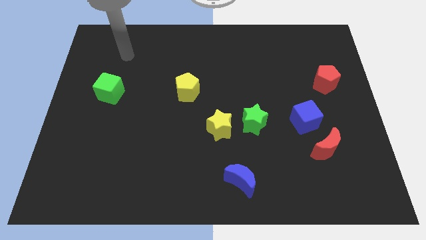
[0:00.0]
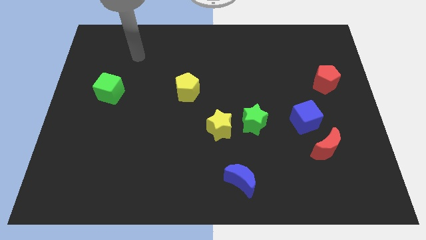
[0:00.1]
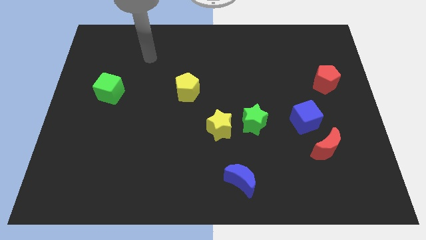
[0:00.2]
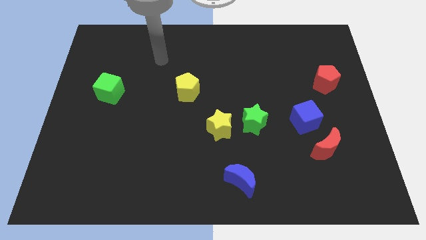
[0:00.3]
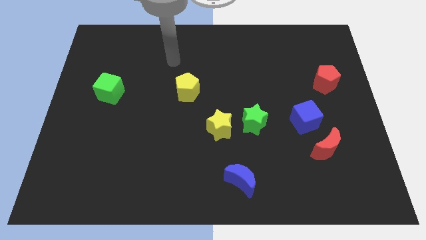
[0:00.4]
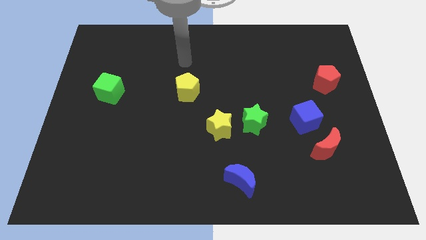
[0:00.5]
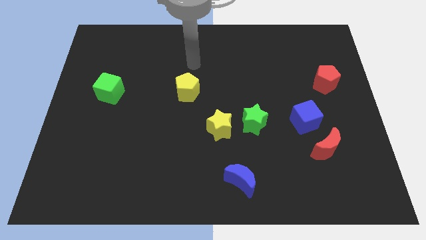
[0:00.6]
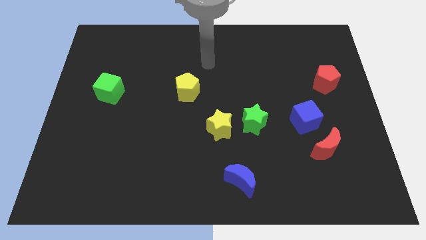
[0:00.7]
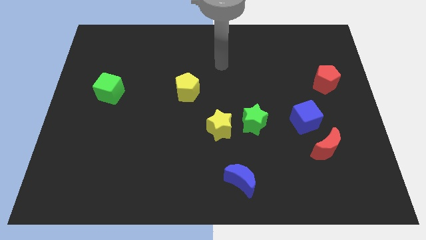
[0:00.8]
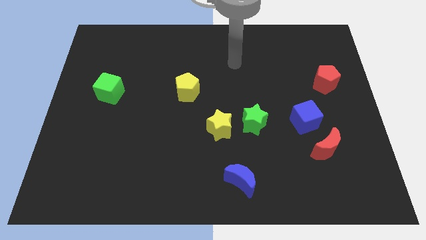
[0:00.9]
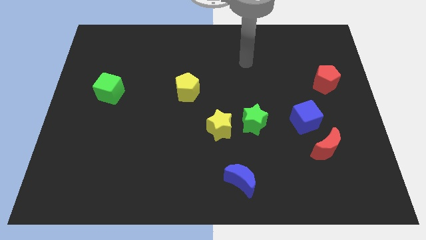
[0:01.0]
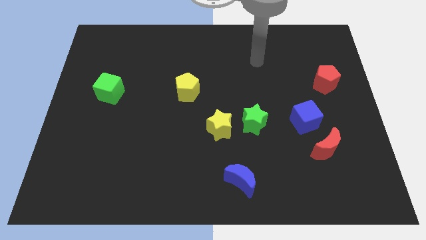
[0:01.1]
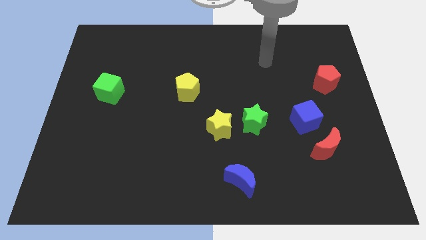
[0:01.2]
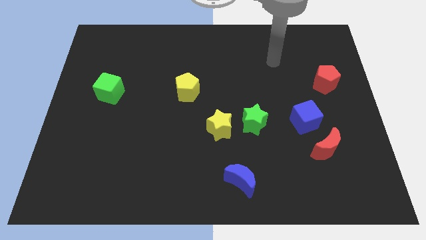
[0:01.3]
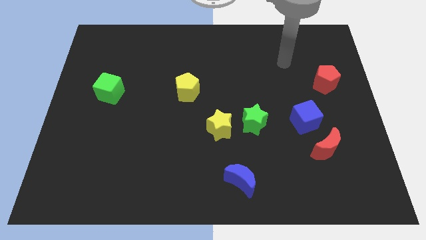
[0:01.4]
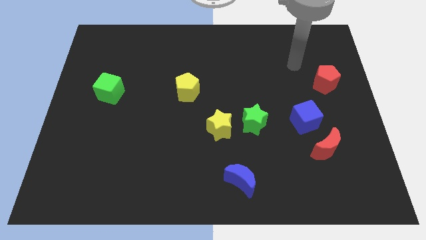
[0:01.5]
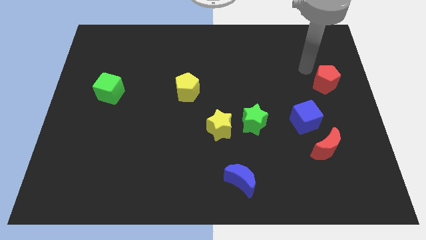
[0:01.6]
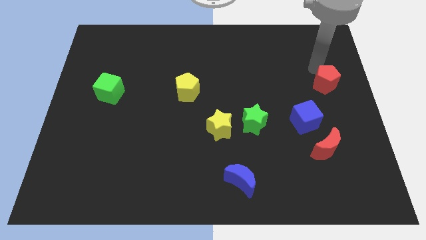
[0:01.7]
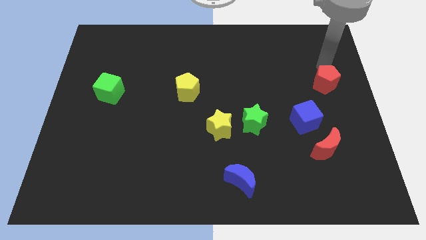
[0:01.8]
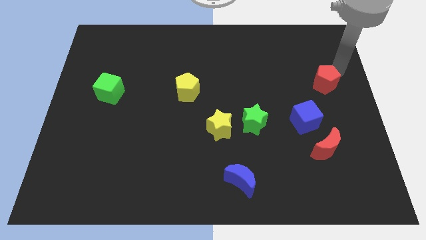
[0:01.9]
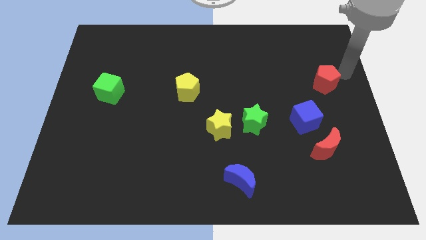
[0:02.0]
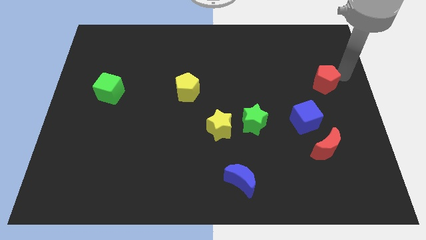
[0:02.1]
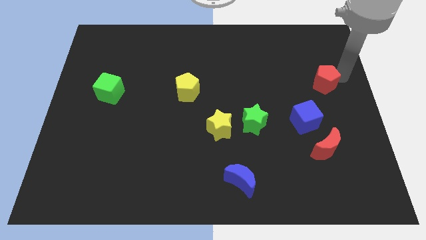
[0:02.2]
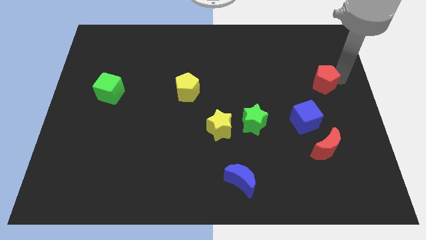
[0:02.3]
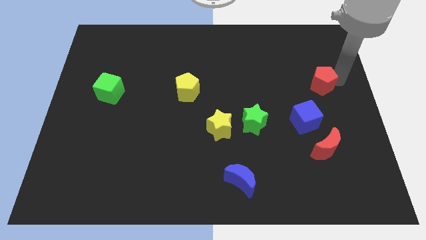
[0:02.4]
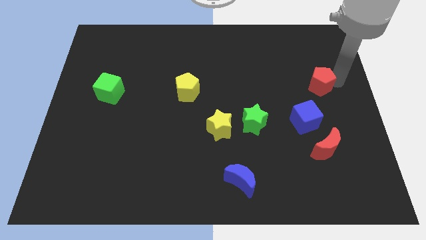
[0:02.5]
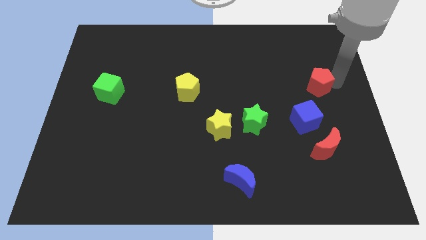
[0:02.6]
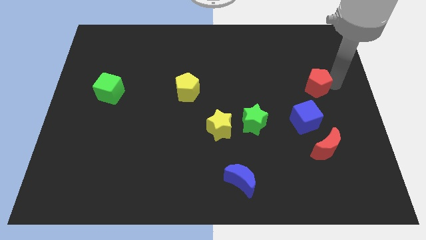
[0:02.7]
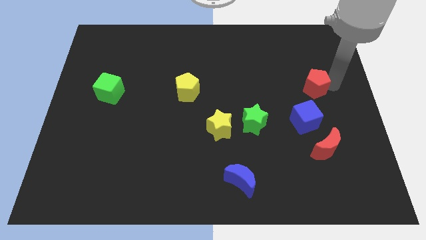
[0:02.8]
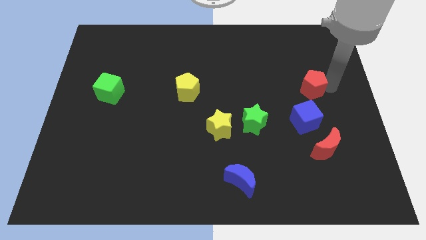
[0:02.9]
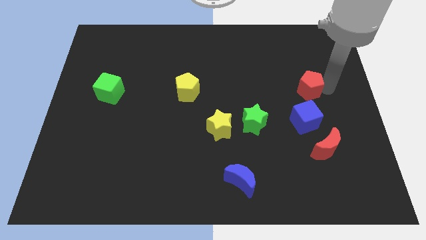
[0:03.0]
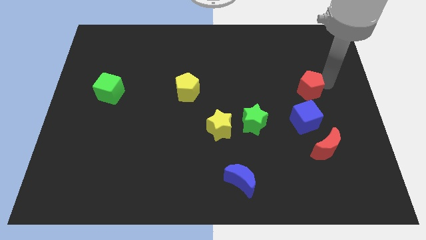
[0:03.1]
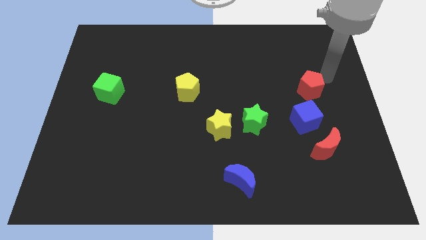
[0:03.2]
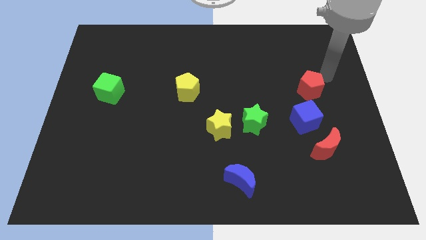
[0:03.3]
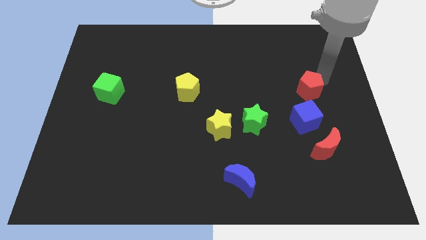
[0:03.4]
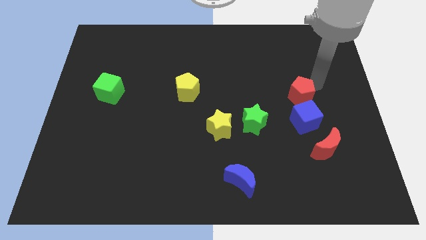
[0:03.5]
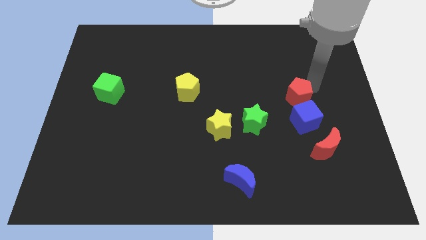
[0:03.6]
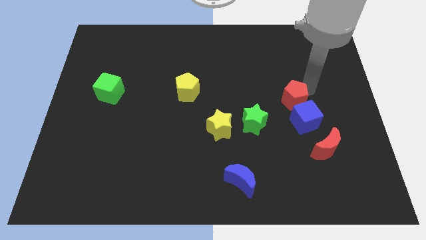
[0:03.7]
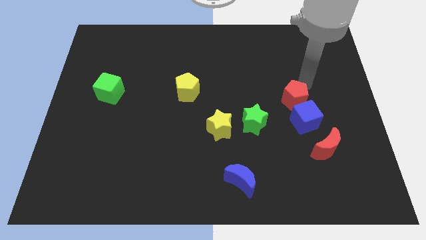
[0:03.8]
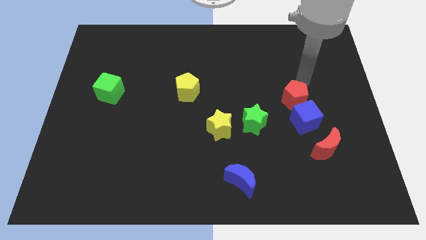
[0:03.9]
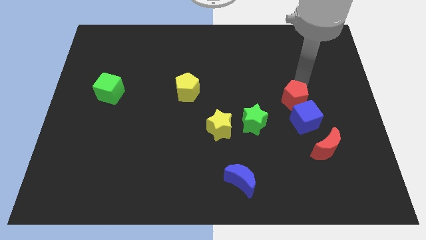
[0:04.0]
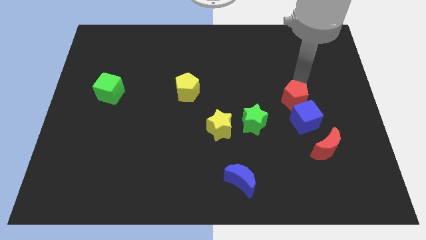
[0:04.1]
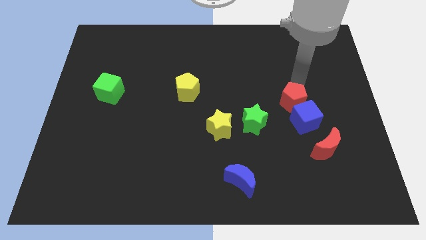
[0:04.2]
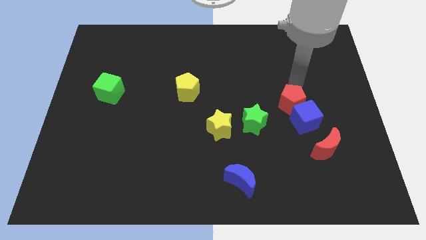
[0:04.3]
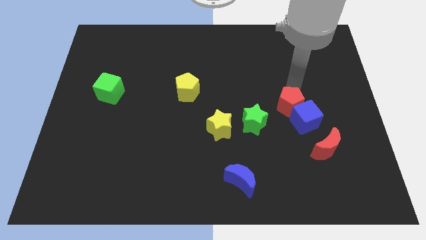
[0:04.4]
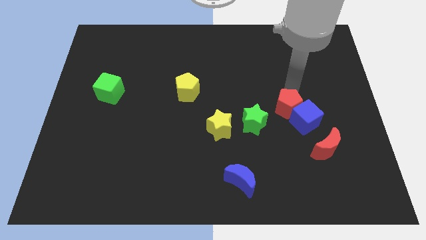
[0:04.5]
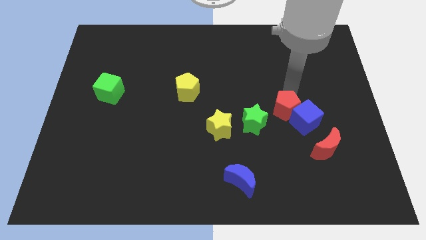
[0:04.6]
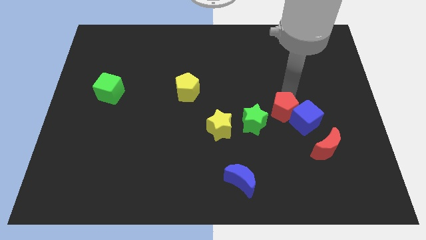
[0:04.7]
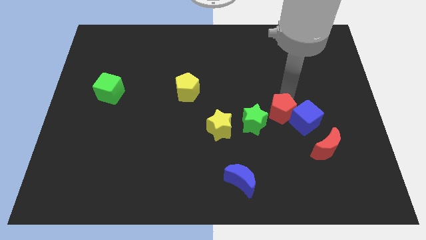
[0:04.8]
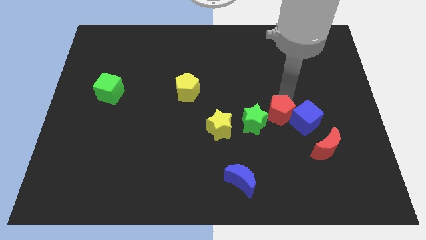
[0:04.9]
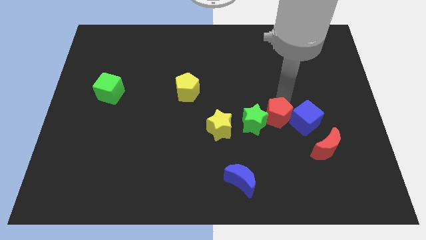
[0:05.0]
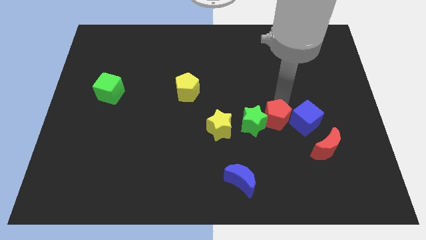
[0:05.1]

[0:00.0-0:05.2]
move the red pentagon diagonally down and to the right of the green star

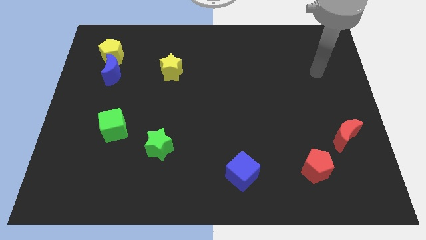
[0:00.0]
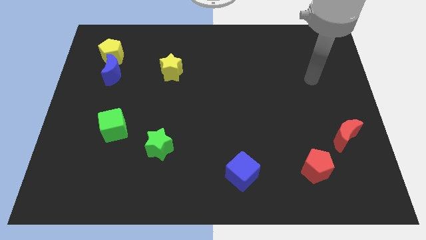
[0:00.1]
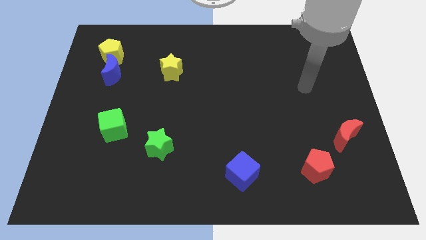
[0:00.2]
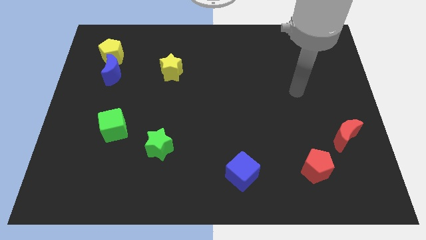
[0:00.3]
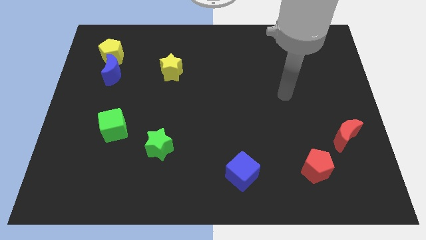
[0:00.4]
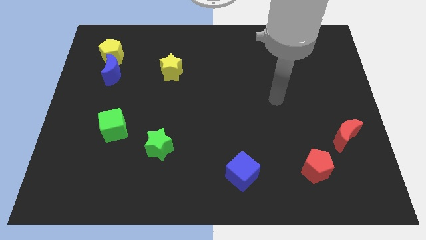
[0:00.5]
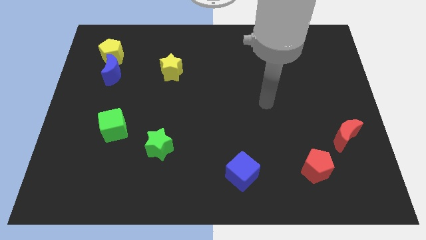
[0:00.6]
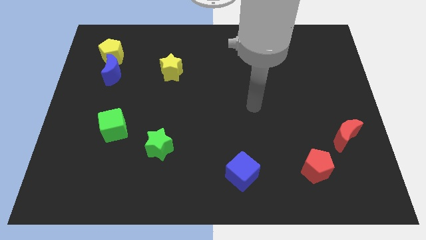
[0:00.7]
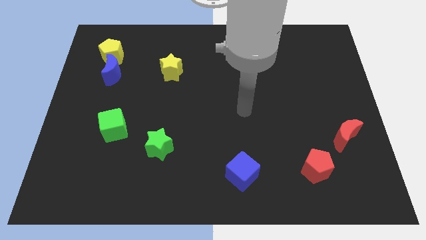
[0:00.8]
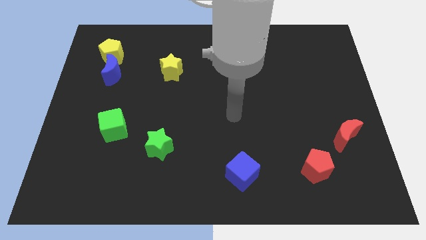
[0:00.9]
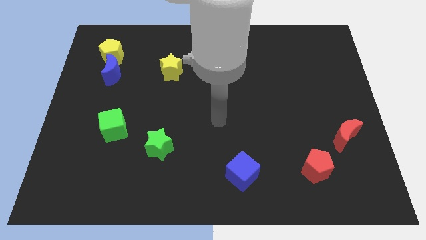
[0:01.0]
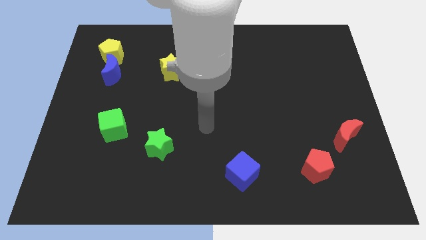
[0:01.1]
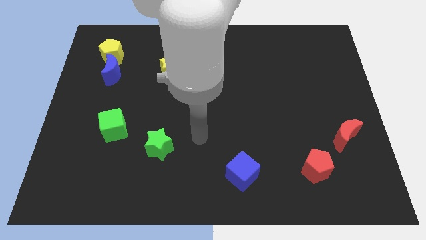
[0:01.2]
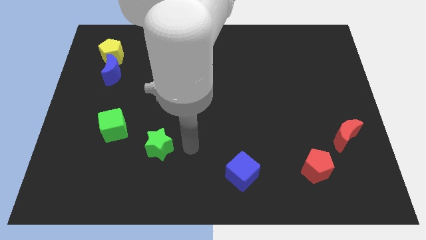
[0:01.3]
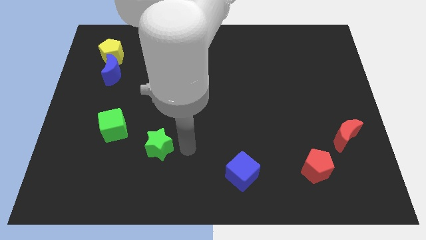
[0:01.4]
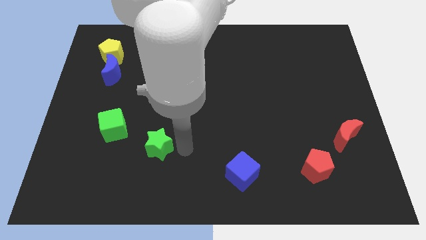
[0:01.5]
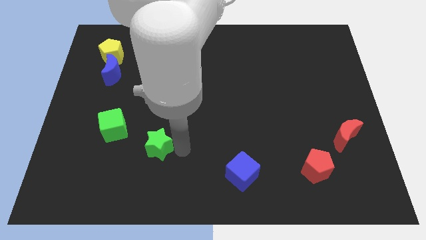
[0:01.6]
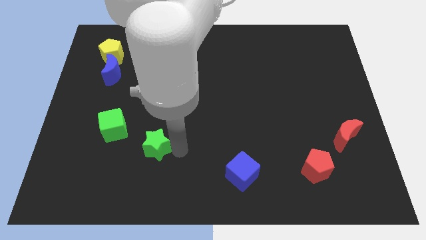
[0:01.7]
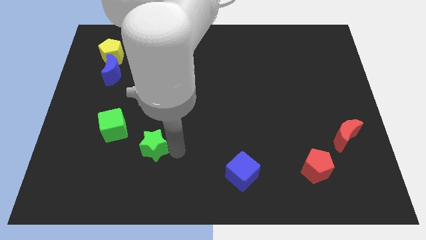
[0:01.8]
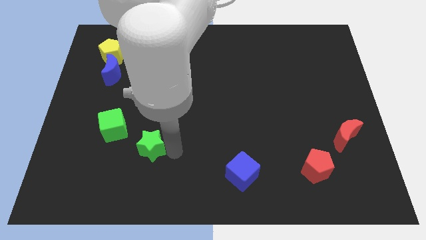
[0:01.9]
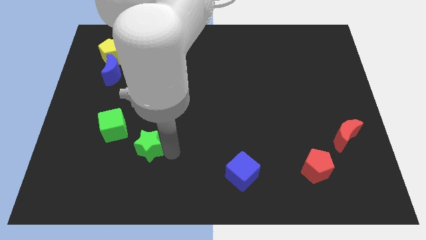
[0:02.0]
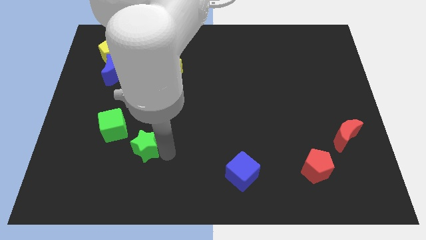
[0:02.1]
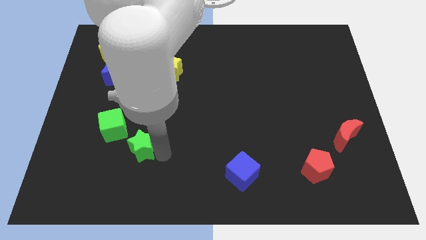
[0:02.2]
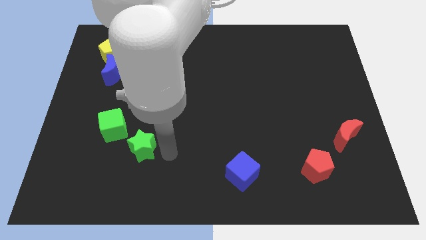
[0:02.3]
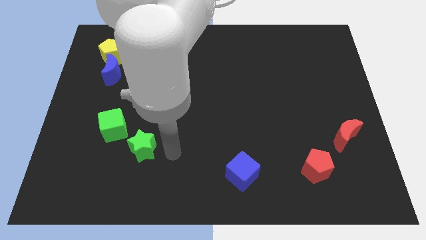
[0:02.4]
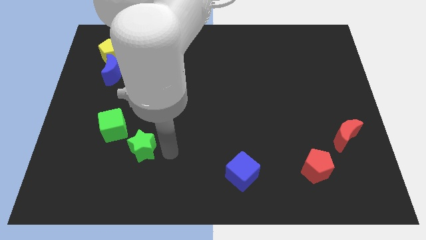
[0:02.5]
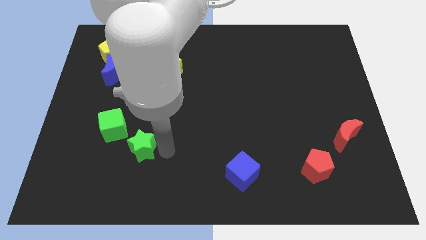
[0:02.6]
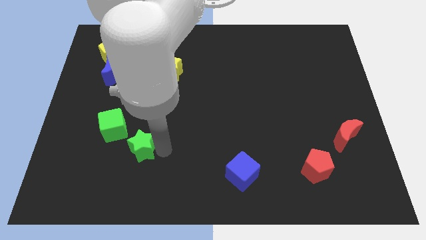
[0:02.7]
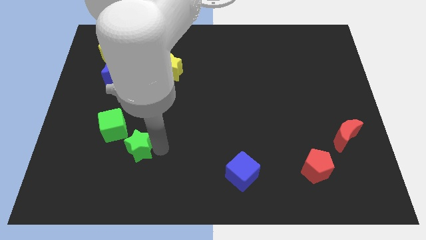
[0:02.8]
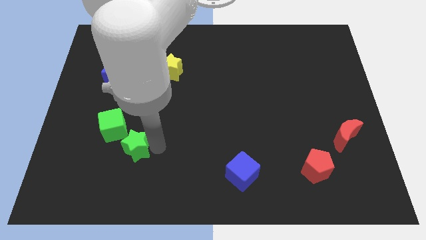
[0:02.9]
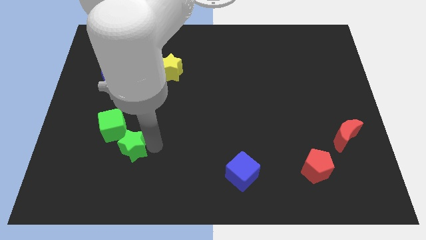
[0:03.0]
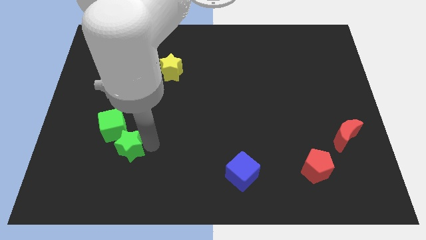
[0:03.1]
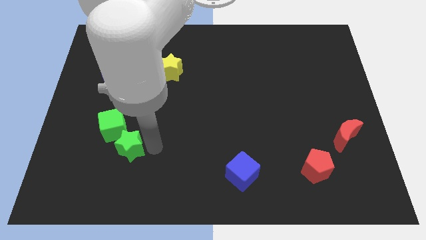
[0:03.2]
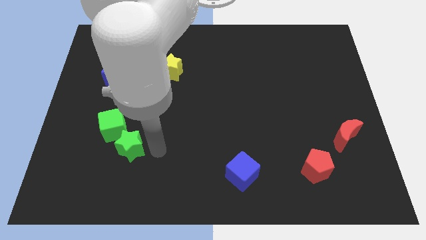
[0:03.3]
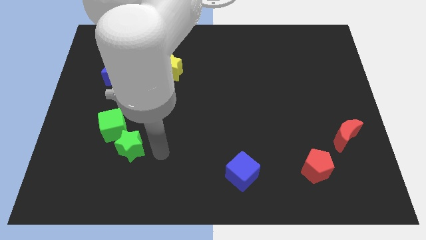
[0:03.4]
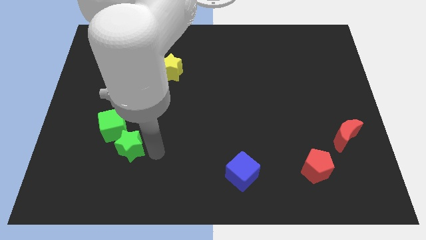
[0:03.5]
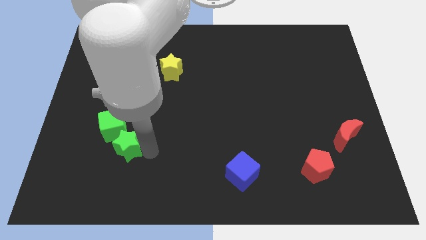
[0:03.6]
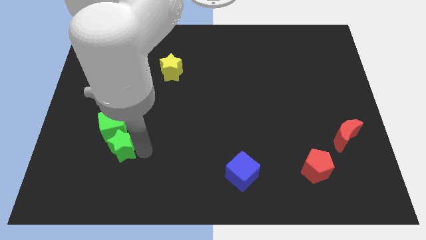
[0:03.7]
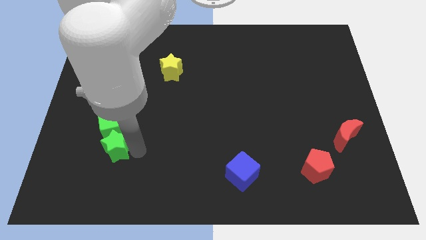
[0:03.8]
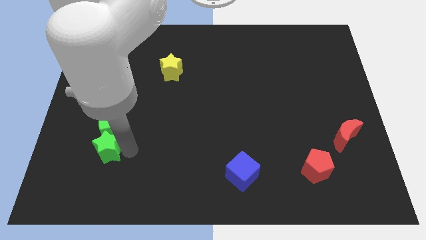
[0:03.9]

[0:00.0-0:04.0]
push the green star to the bottom left of the green cube
